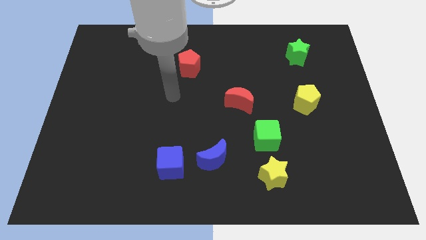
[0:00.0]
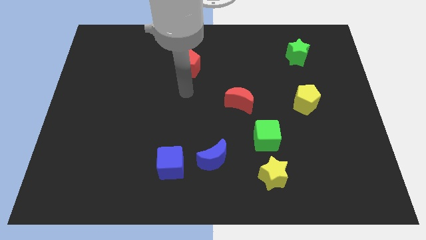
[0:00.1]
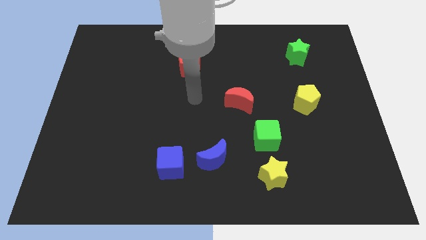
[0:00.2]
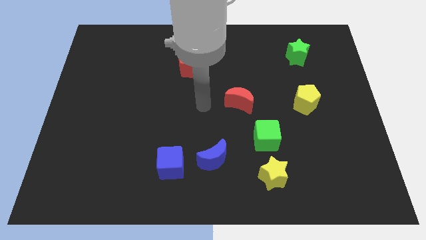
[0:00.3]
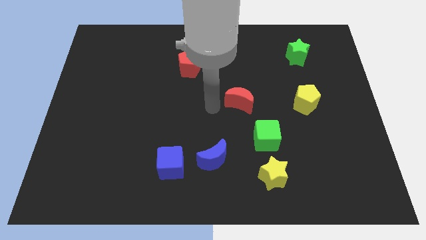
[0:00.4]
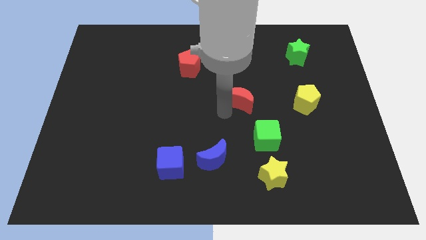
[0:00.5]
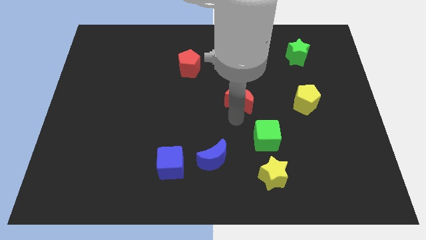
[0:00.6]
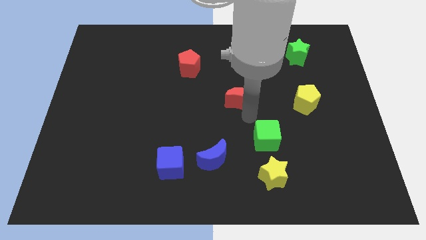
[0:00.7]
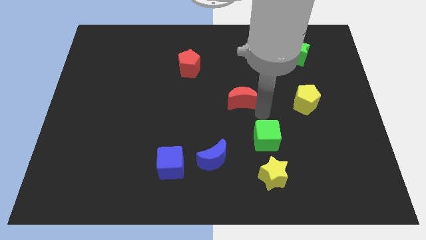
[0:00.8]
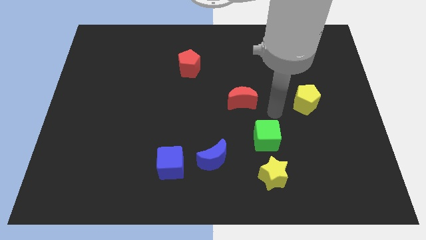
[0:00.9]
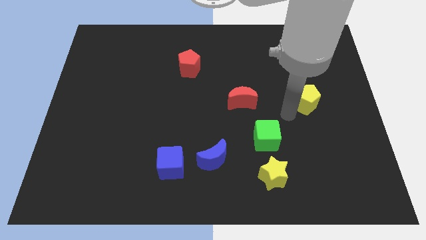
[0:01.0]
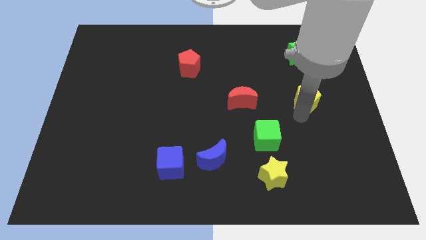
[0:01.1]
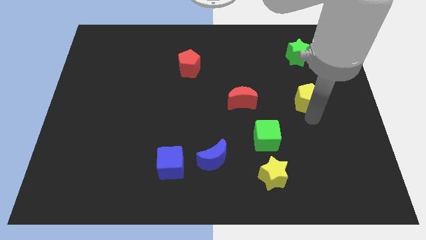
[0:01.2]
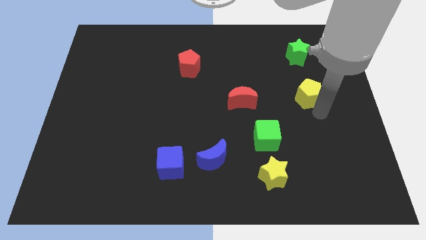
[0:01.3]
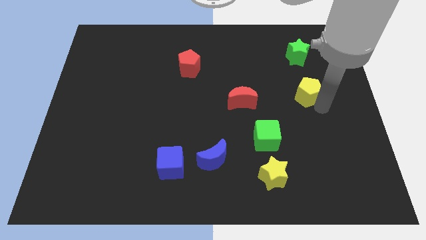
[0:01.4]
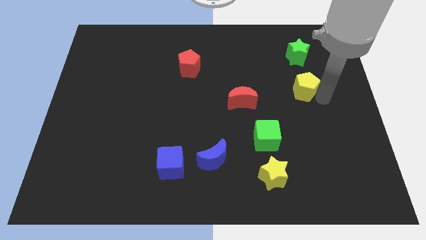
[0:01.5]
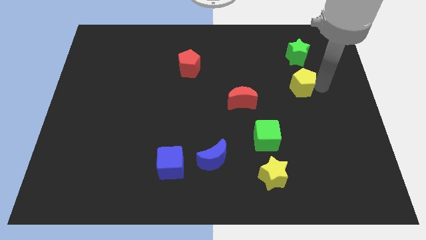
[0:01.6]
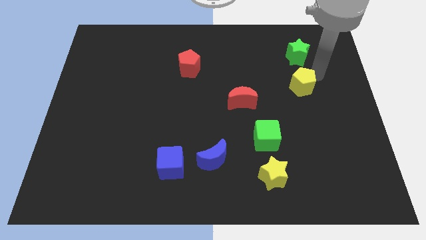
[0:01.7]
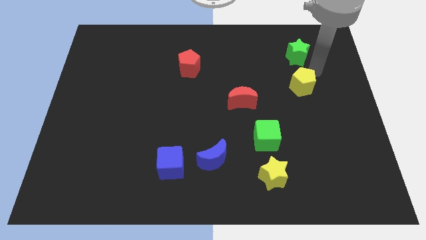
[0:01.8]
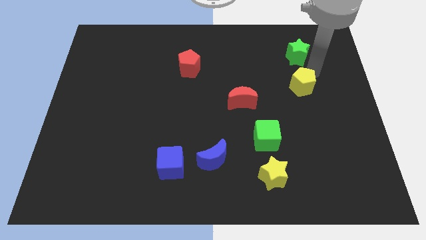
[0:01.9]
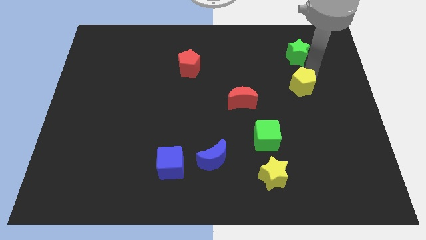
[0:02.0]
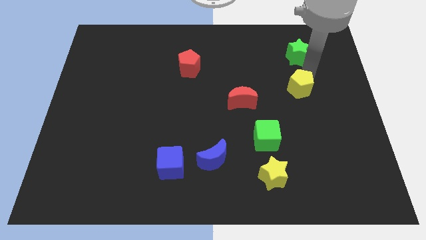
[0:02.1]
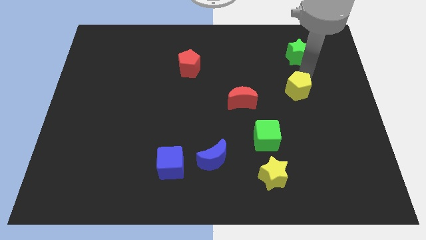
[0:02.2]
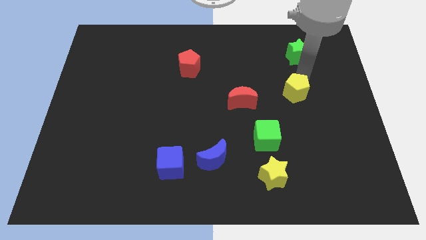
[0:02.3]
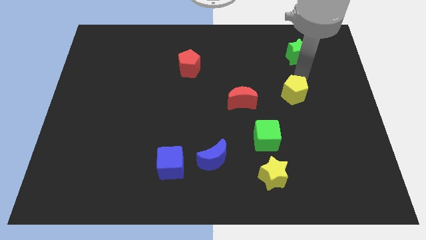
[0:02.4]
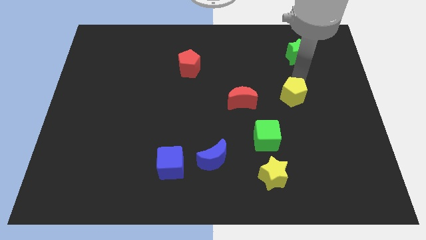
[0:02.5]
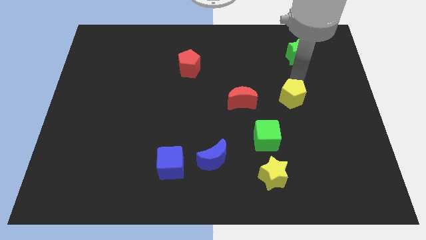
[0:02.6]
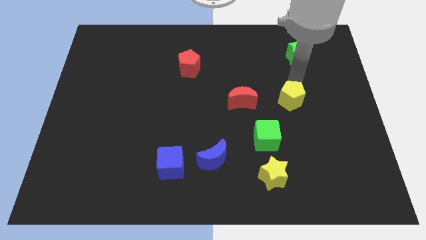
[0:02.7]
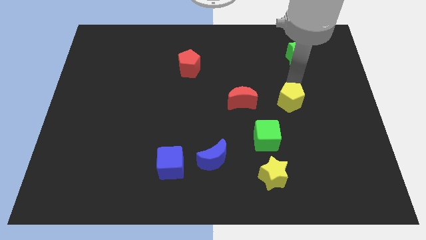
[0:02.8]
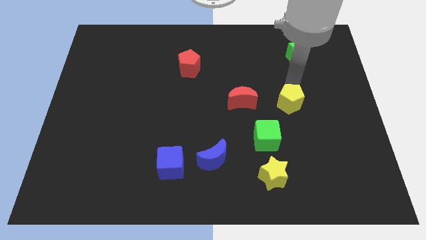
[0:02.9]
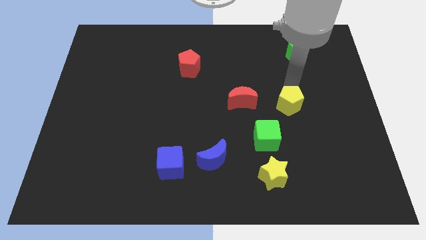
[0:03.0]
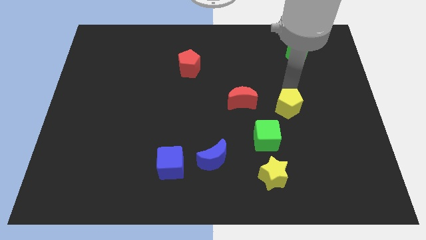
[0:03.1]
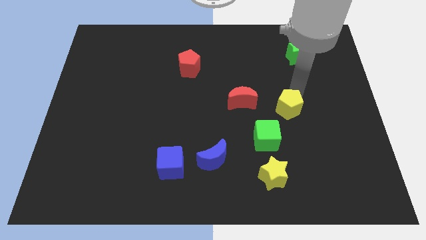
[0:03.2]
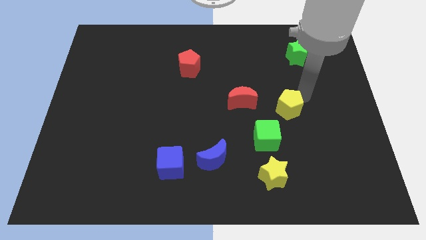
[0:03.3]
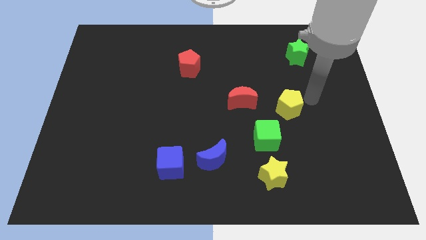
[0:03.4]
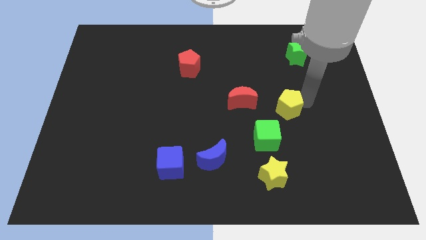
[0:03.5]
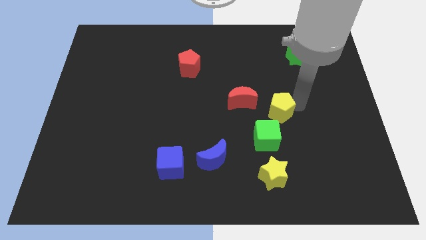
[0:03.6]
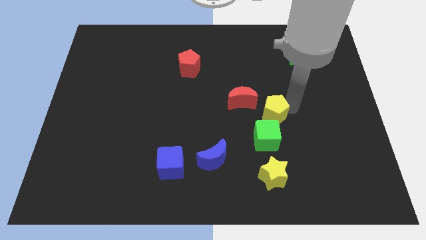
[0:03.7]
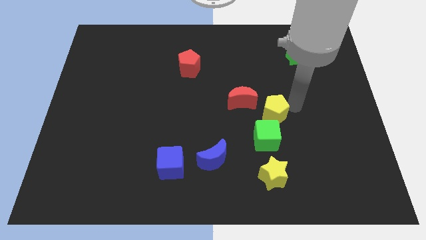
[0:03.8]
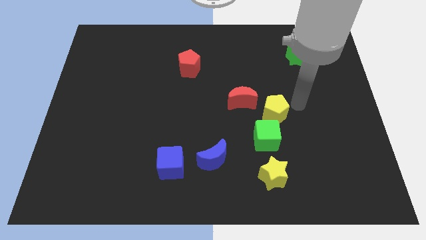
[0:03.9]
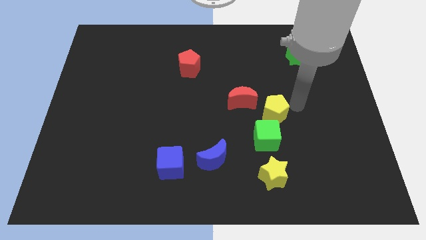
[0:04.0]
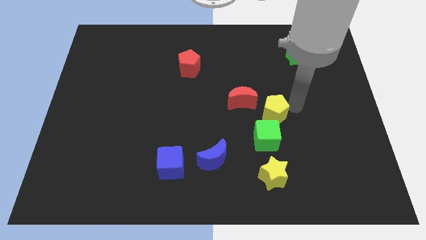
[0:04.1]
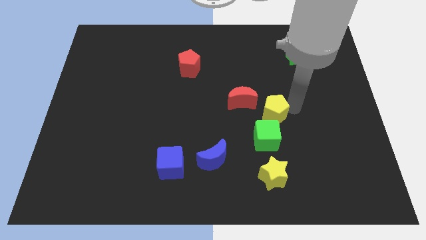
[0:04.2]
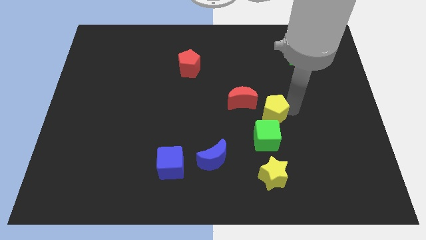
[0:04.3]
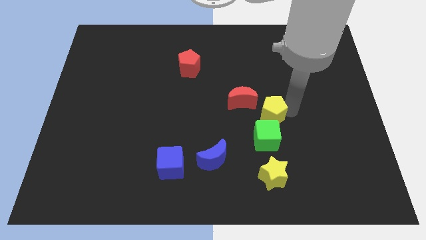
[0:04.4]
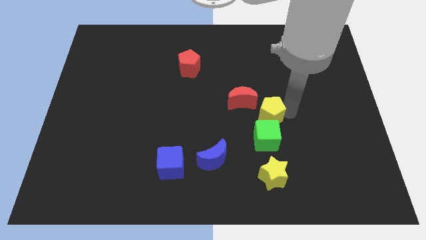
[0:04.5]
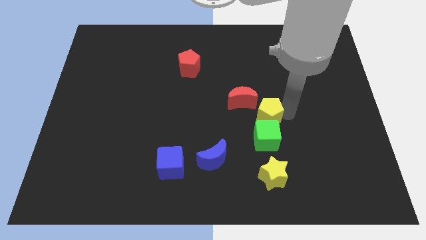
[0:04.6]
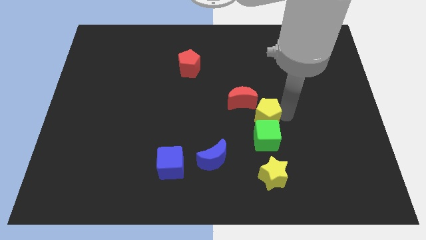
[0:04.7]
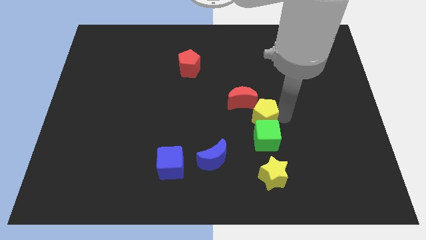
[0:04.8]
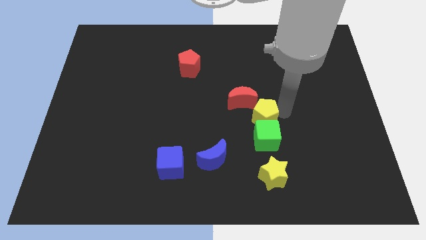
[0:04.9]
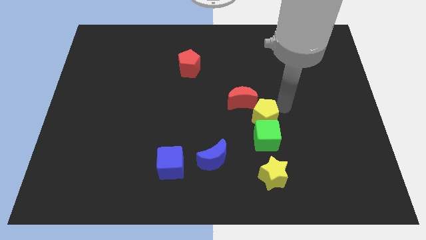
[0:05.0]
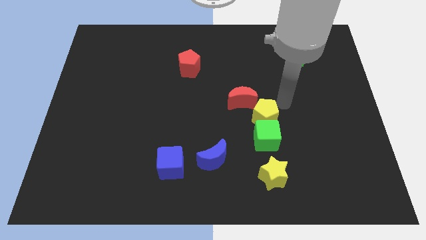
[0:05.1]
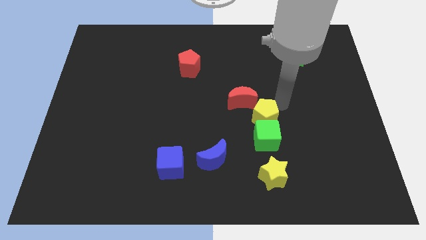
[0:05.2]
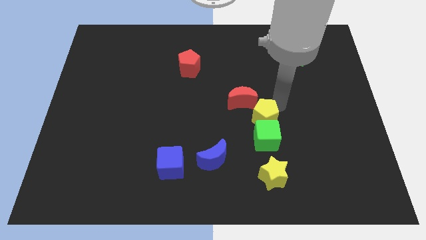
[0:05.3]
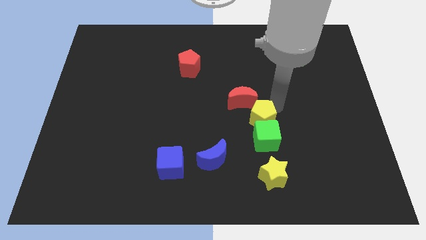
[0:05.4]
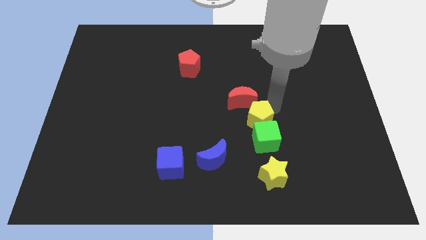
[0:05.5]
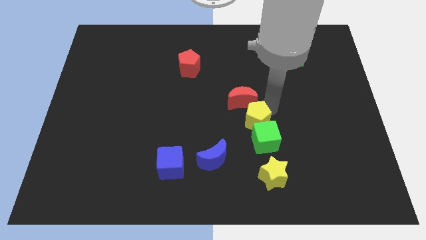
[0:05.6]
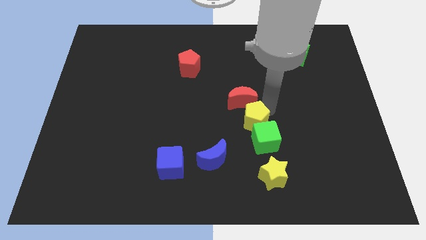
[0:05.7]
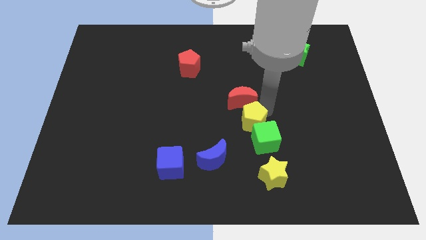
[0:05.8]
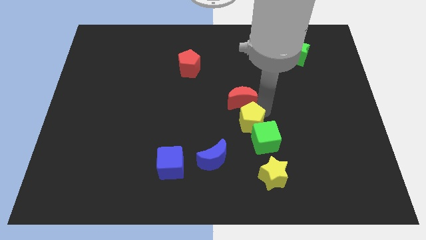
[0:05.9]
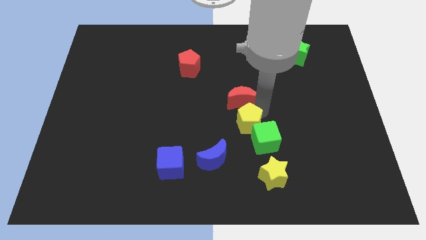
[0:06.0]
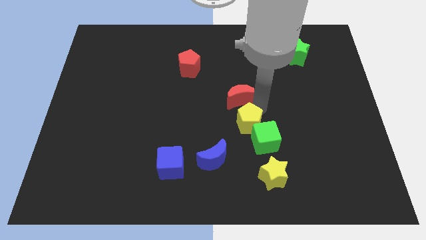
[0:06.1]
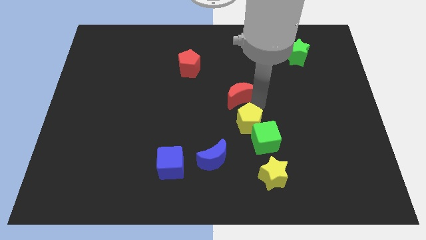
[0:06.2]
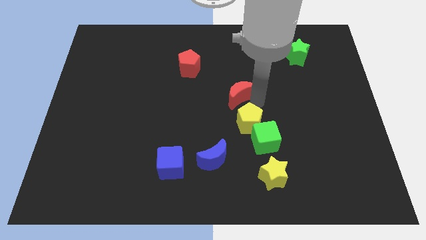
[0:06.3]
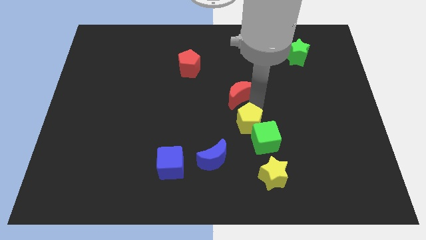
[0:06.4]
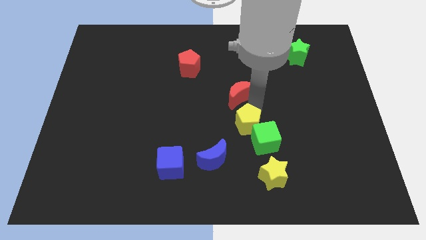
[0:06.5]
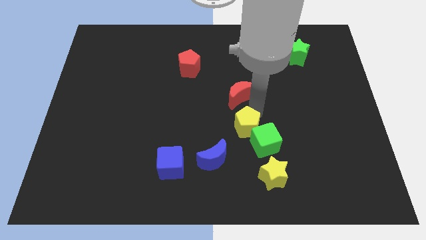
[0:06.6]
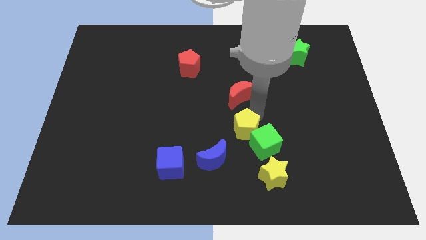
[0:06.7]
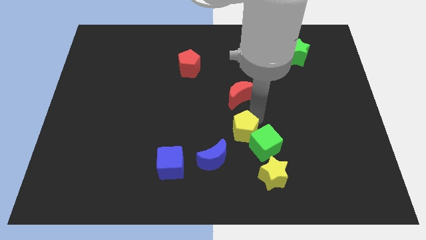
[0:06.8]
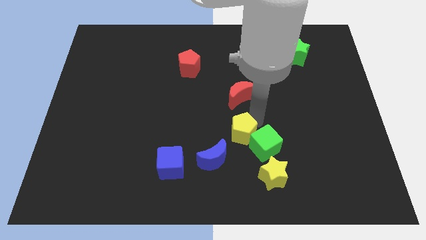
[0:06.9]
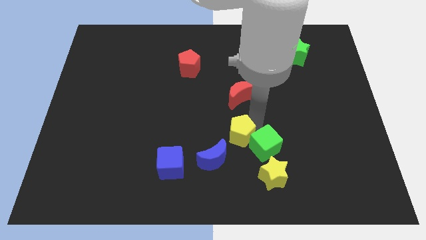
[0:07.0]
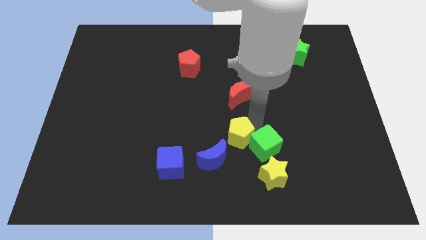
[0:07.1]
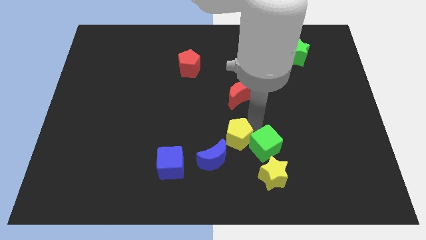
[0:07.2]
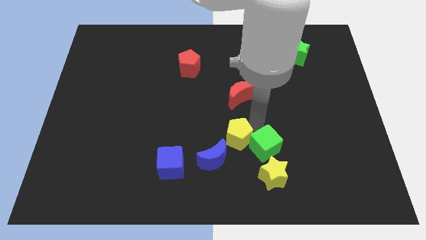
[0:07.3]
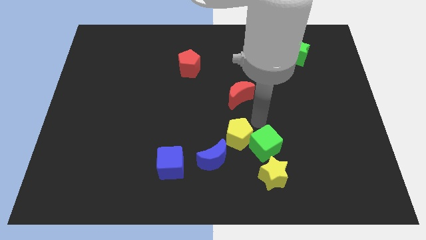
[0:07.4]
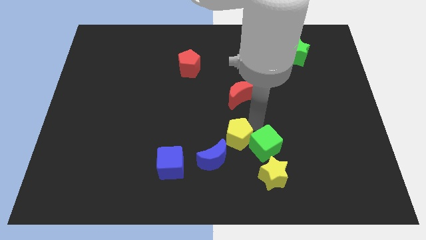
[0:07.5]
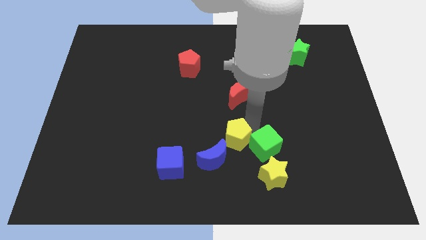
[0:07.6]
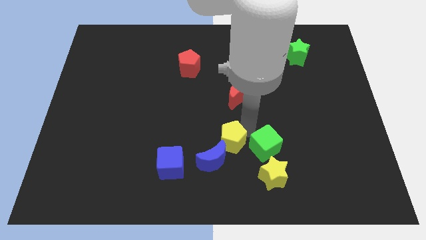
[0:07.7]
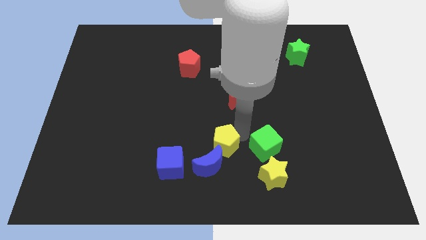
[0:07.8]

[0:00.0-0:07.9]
move the yellow pentagon to the blue moon
